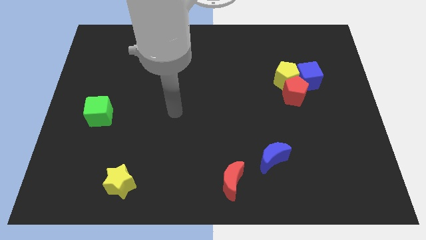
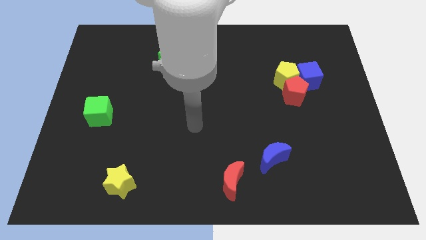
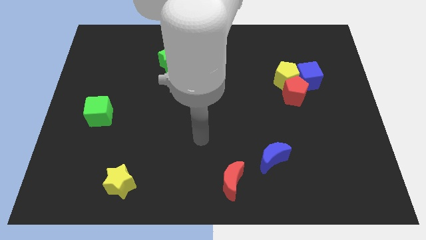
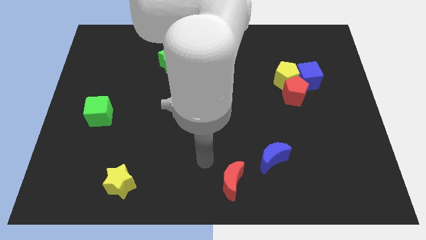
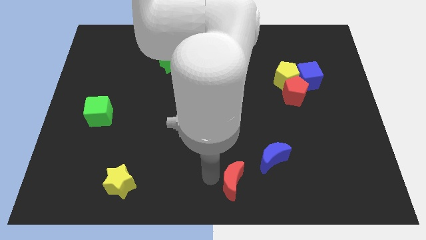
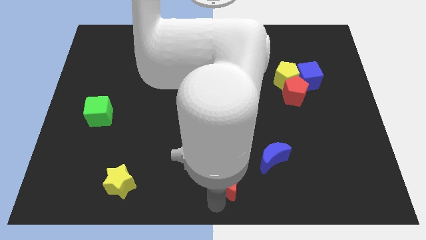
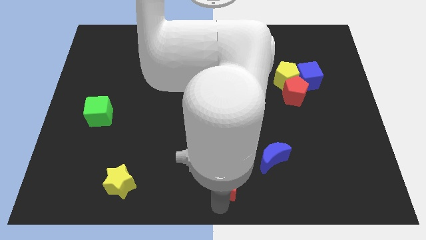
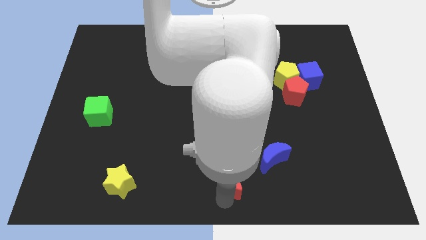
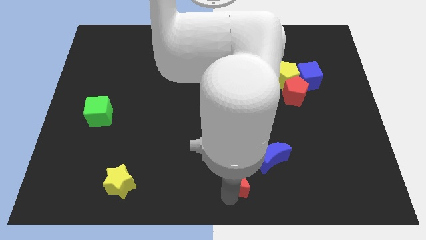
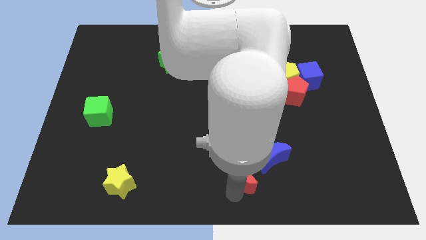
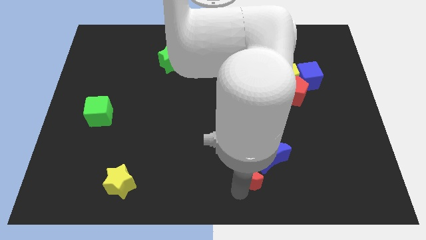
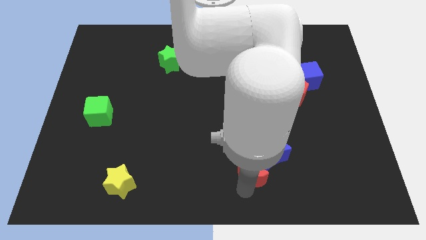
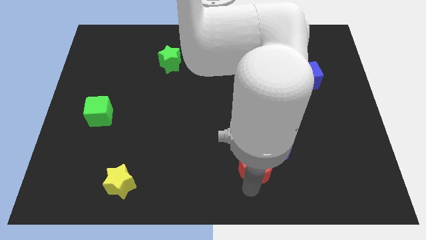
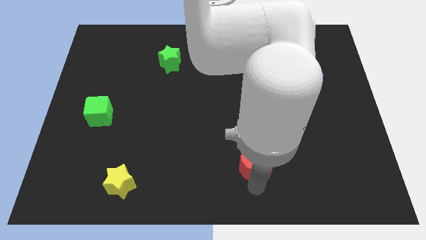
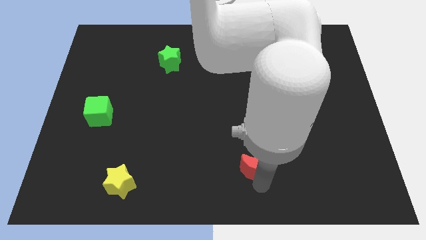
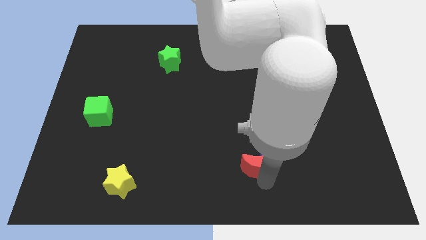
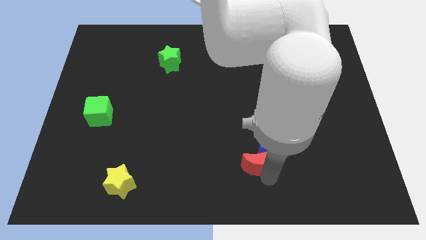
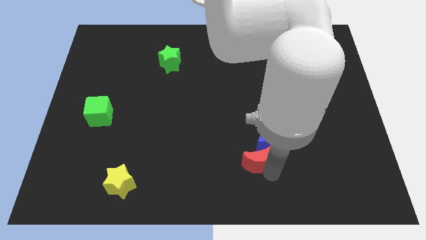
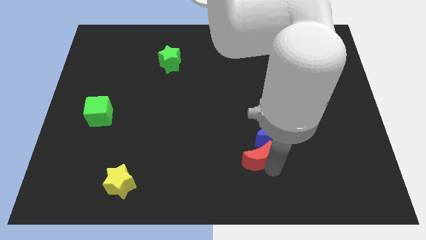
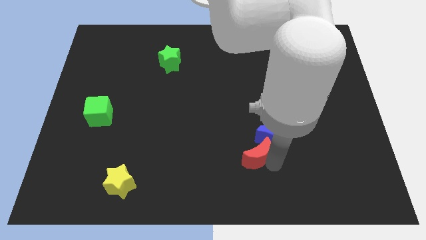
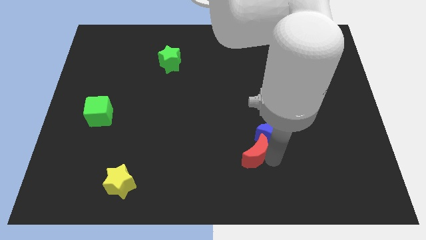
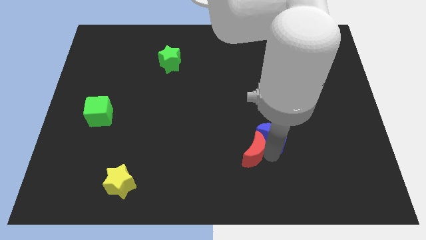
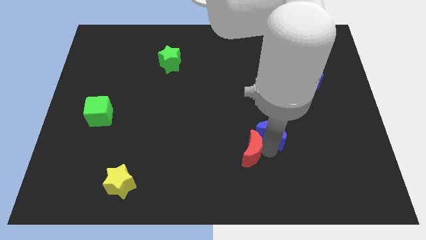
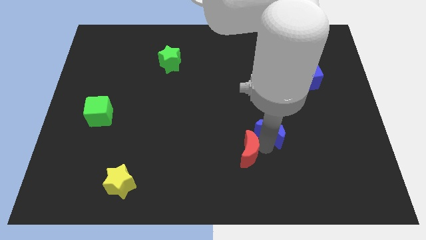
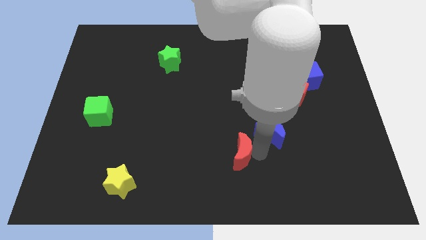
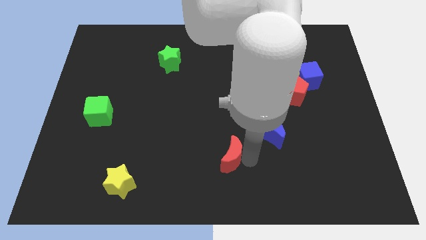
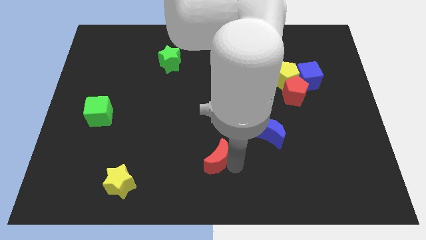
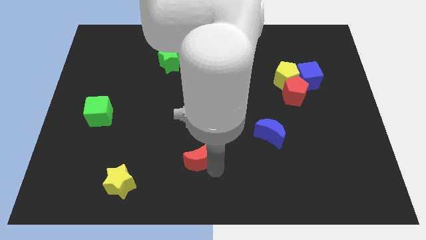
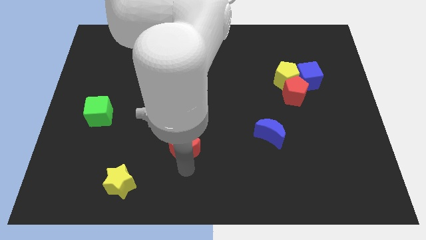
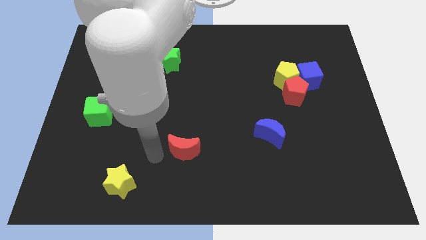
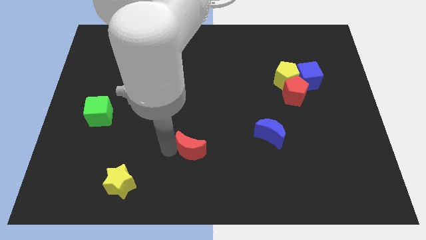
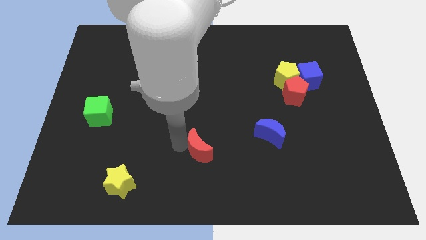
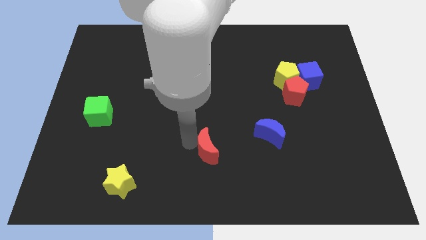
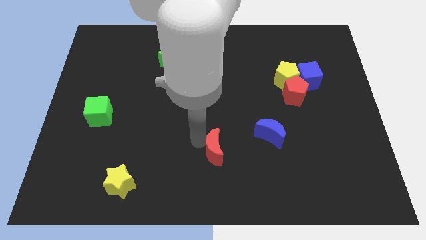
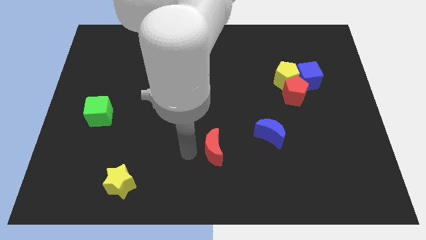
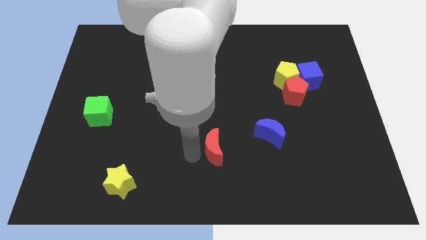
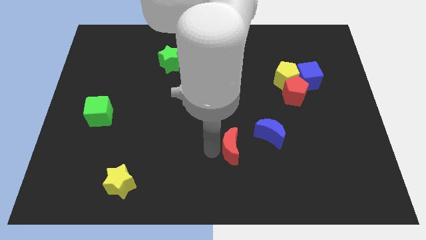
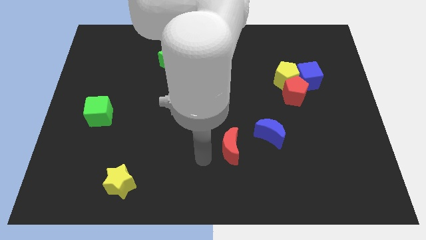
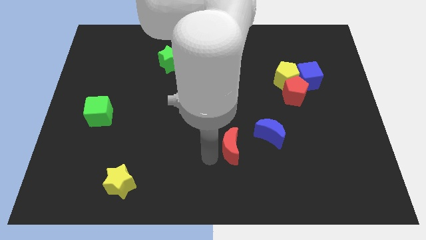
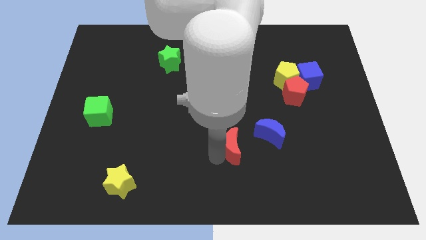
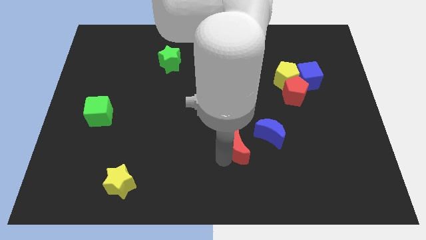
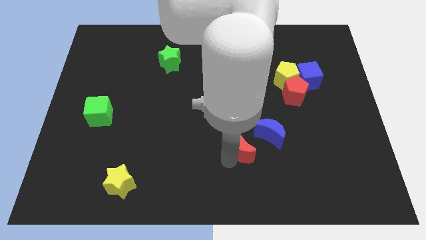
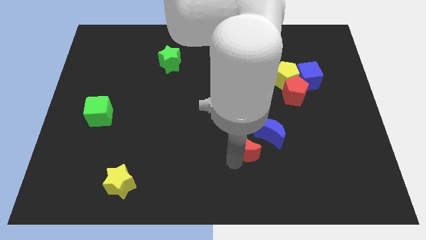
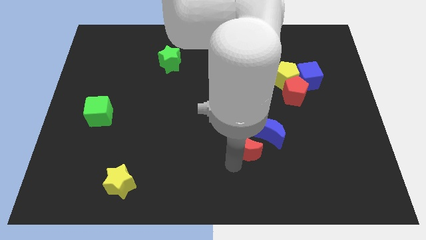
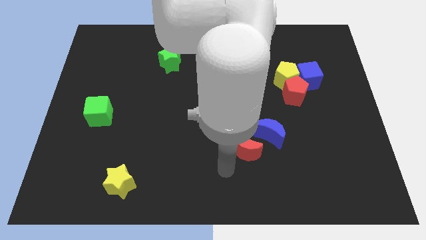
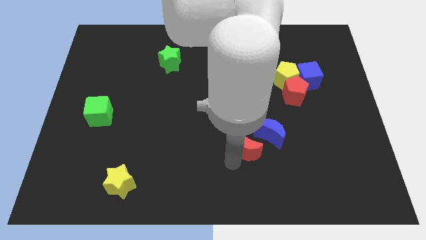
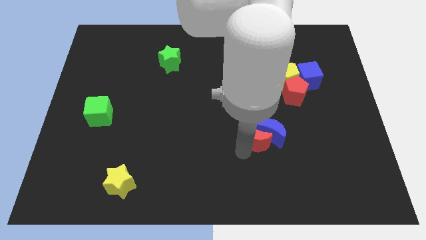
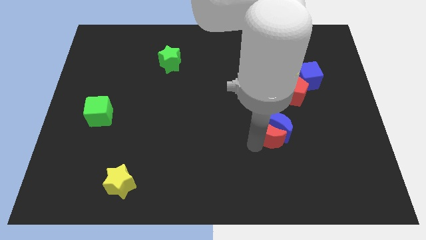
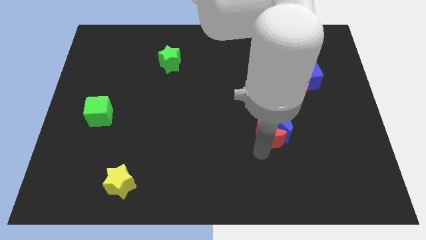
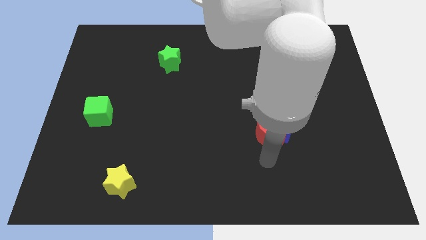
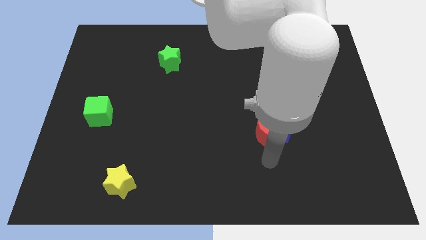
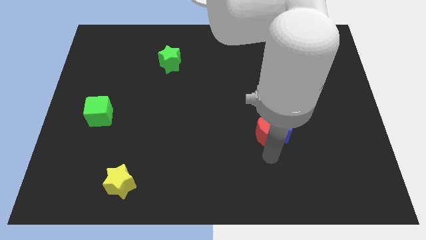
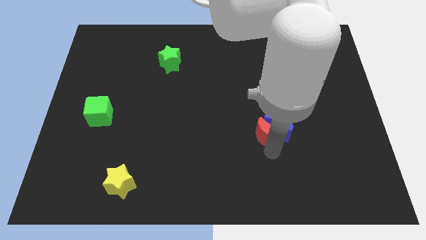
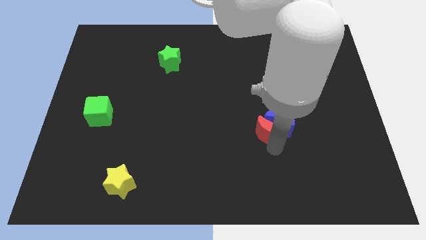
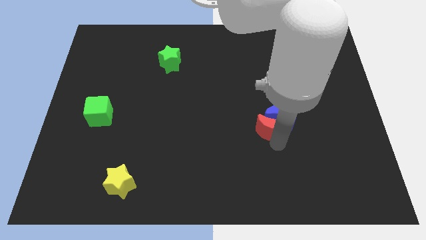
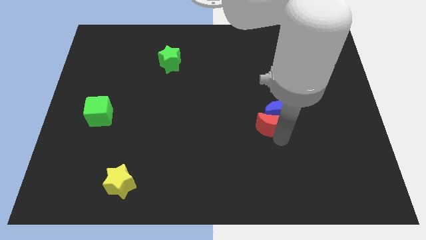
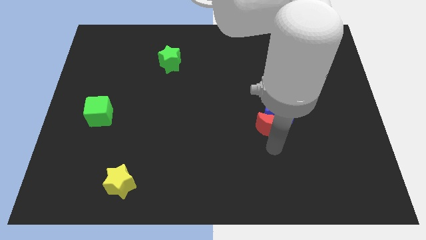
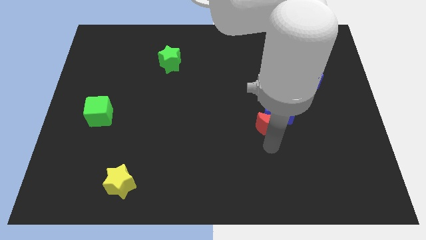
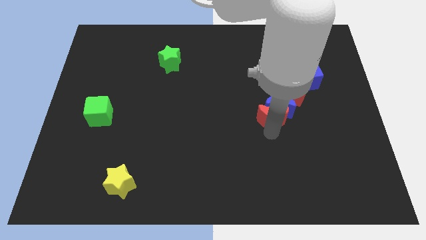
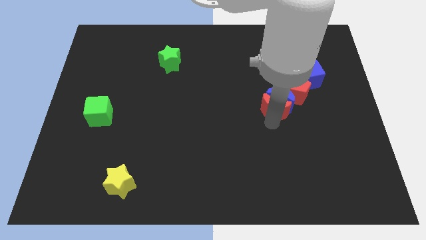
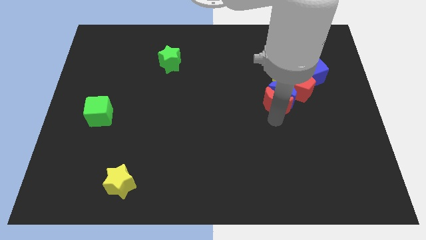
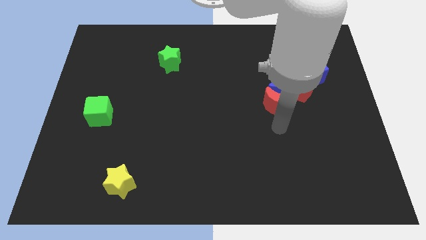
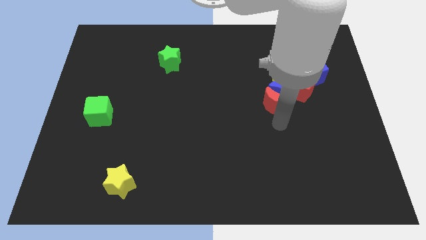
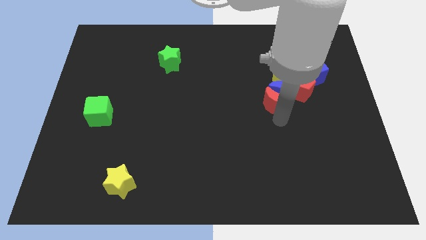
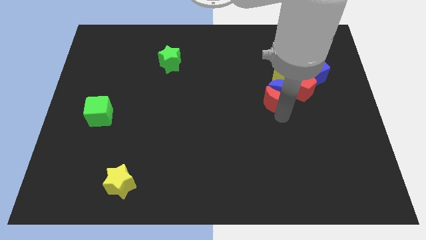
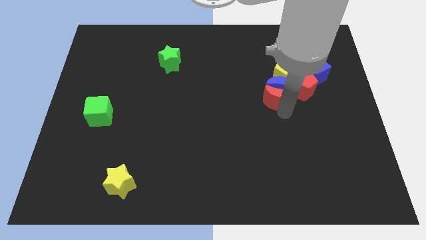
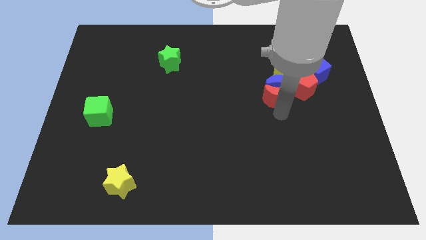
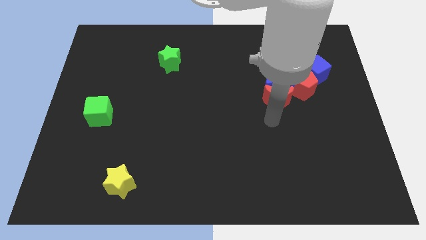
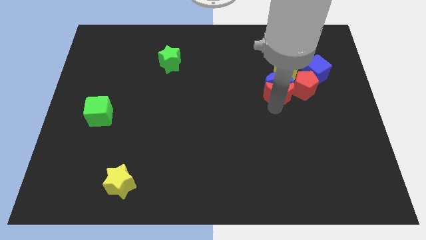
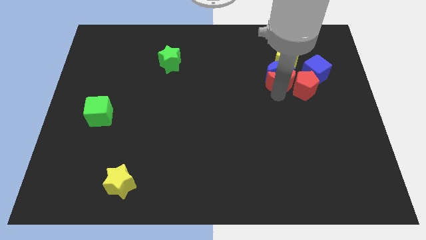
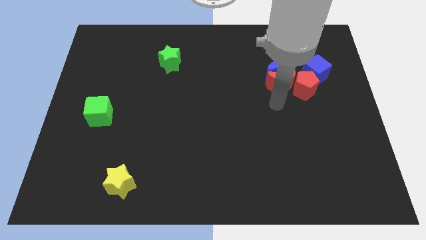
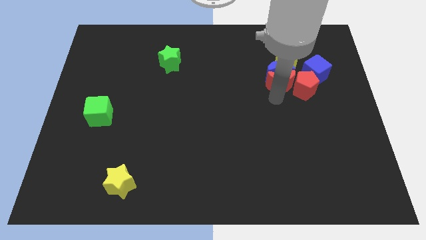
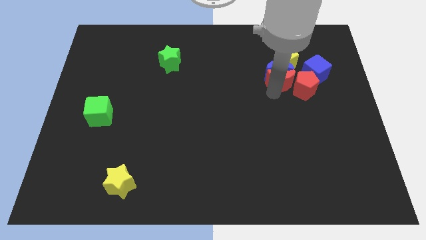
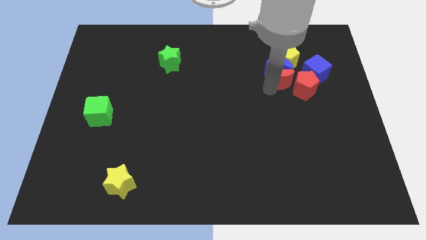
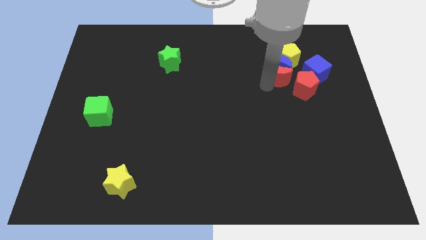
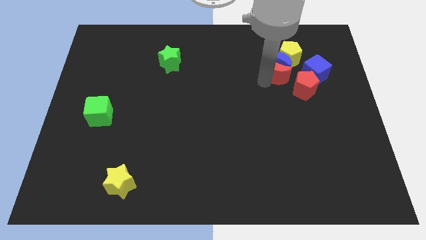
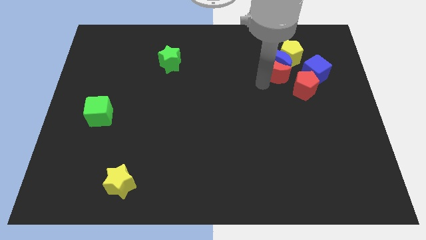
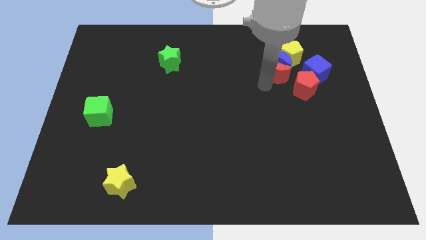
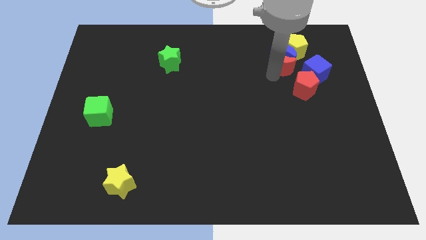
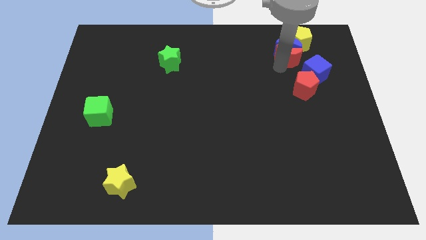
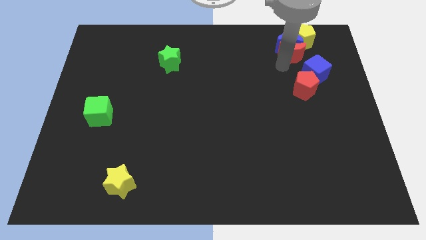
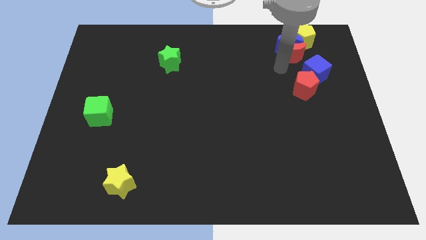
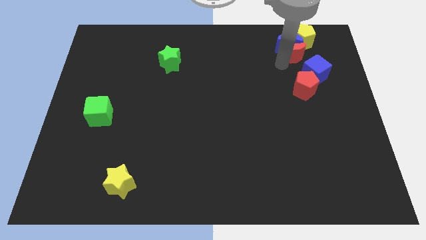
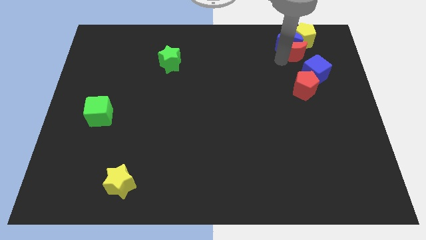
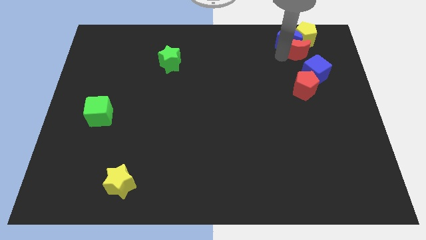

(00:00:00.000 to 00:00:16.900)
move the red moon towards the yellow pentagon

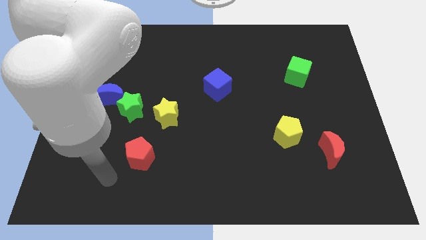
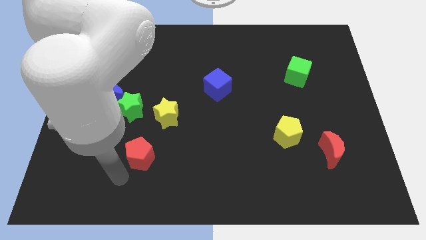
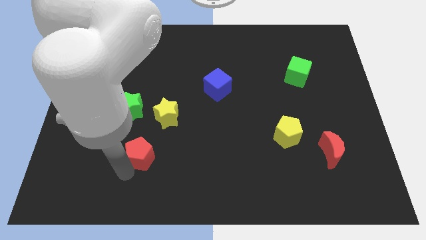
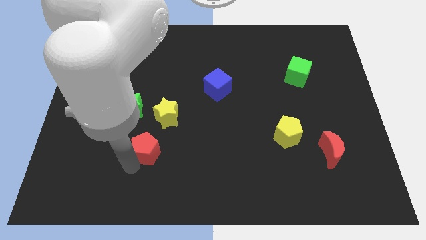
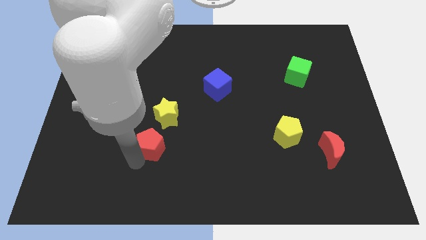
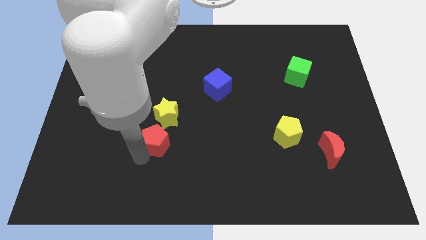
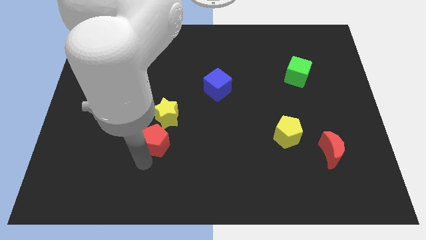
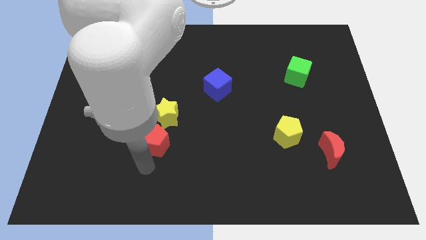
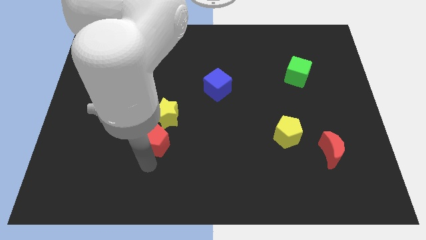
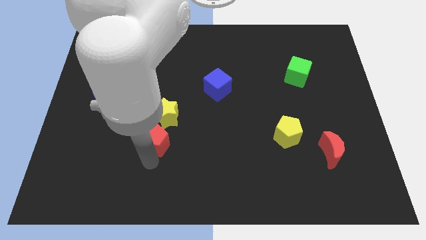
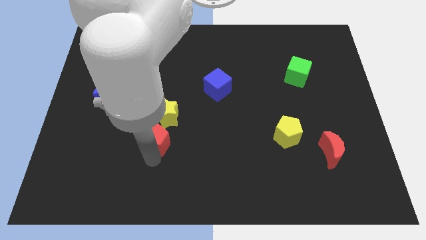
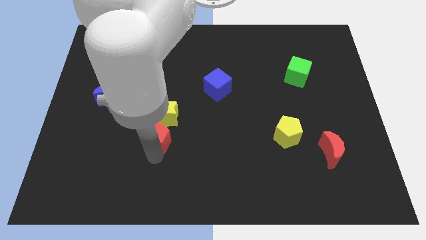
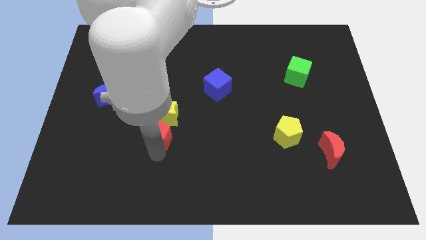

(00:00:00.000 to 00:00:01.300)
move the red pentagon towards the yellow star
